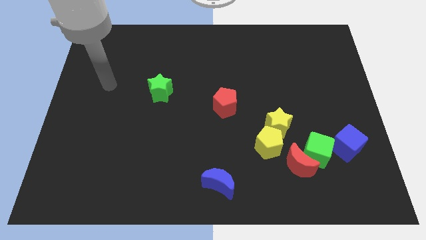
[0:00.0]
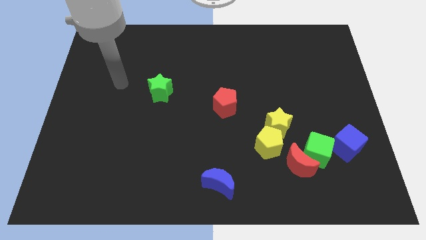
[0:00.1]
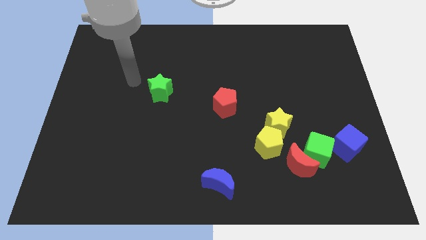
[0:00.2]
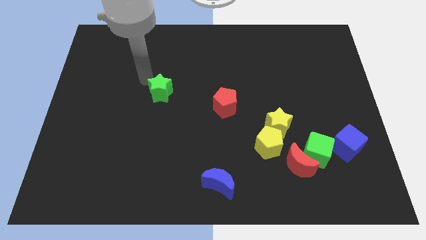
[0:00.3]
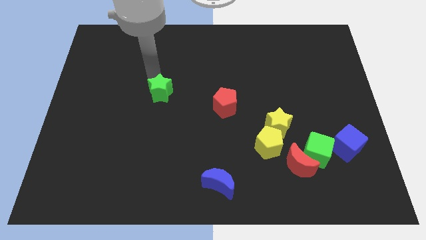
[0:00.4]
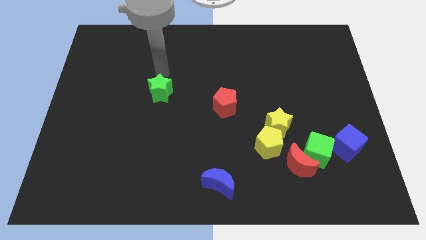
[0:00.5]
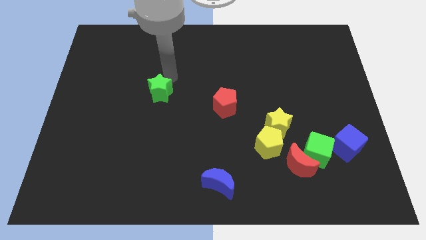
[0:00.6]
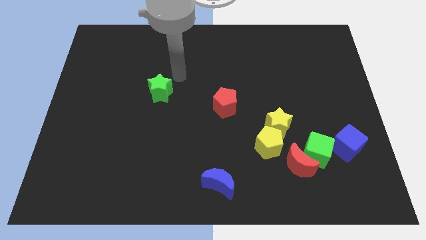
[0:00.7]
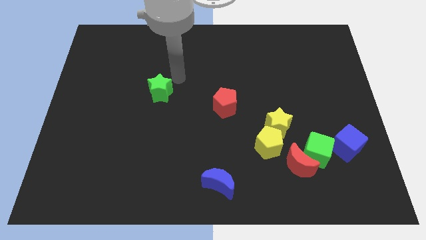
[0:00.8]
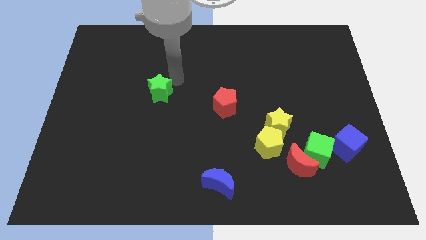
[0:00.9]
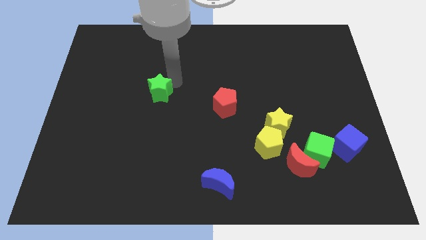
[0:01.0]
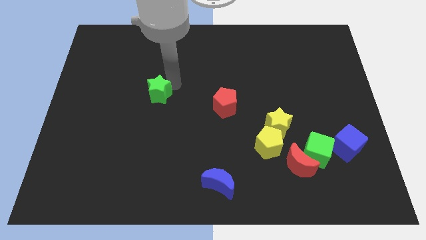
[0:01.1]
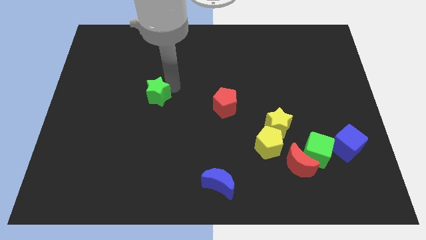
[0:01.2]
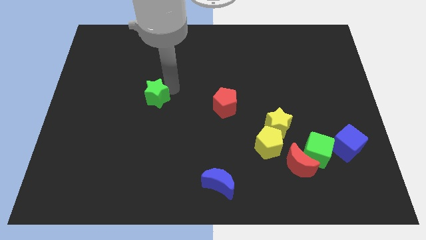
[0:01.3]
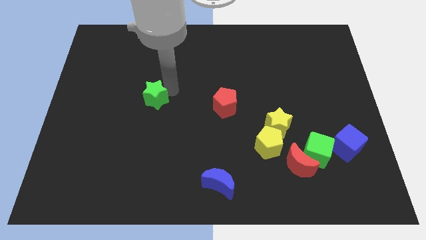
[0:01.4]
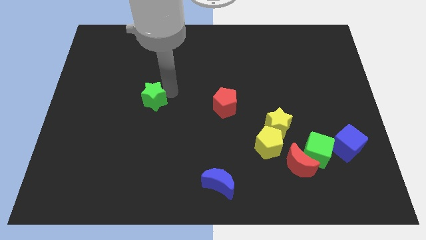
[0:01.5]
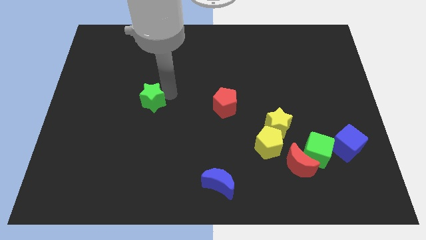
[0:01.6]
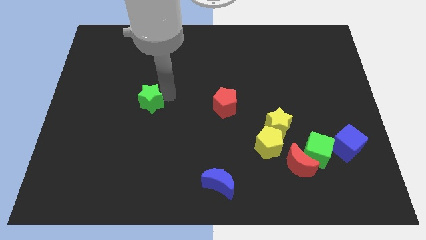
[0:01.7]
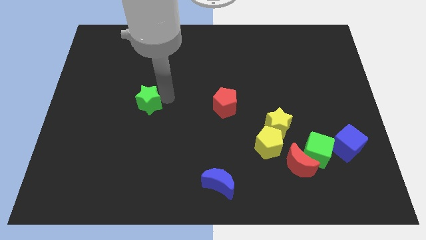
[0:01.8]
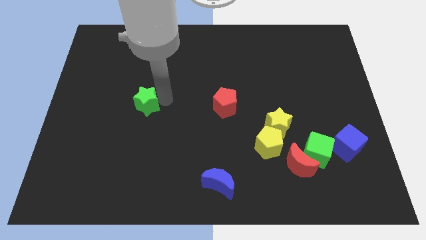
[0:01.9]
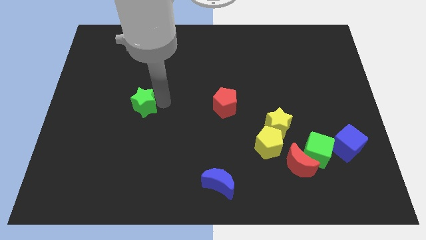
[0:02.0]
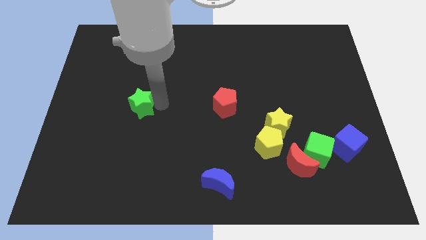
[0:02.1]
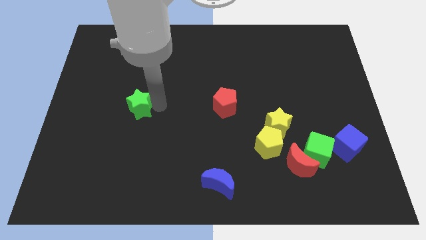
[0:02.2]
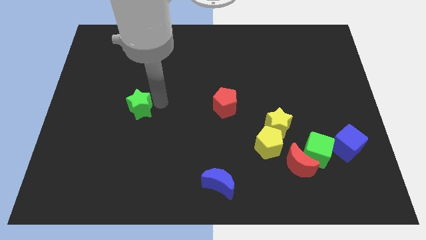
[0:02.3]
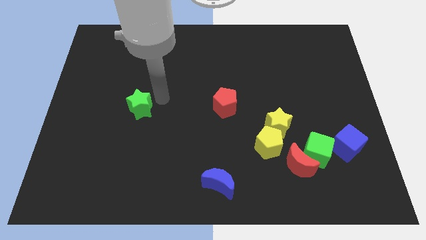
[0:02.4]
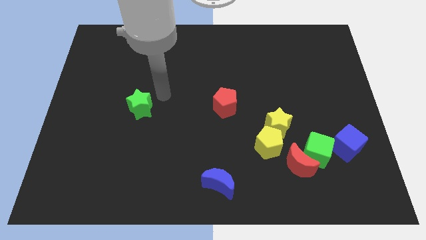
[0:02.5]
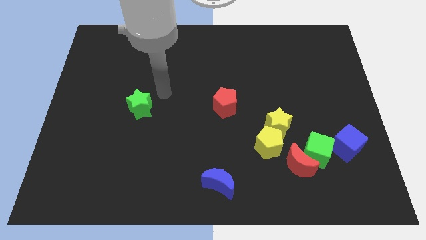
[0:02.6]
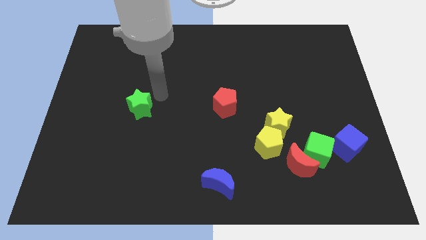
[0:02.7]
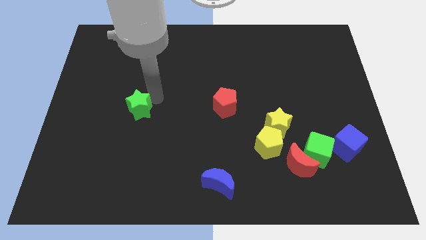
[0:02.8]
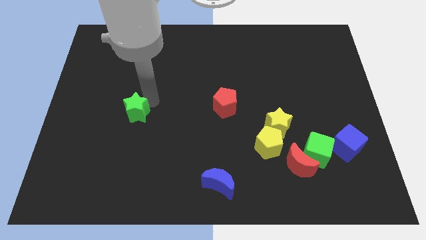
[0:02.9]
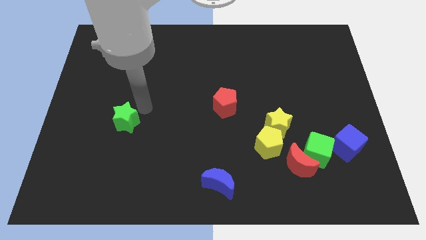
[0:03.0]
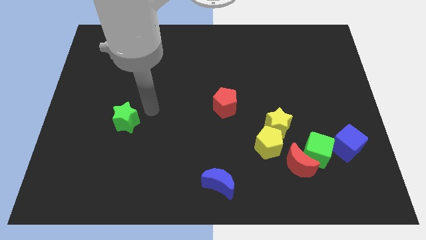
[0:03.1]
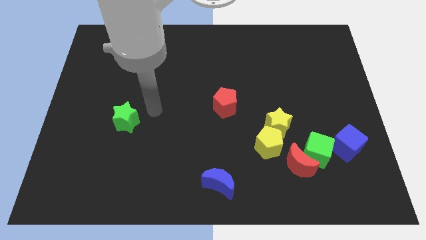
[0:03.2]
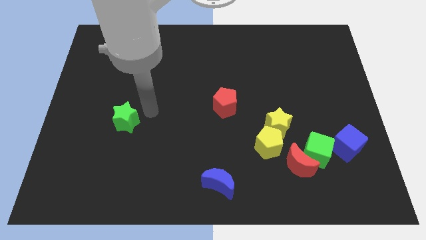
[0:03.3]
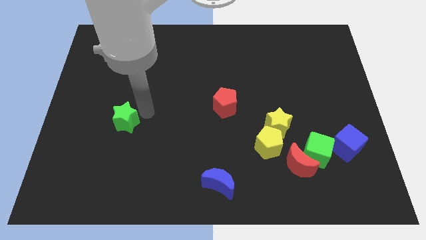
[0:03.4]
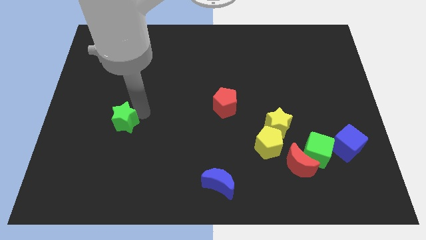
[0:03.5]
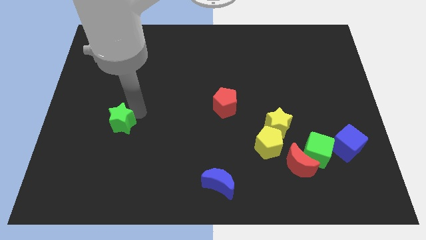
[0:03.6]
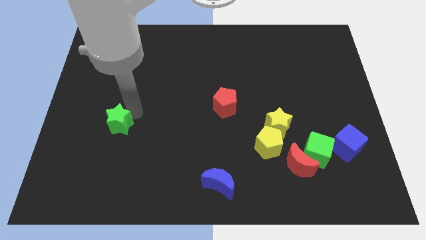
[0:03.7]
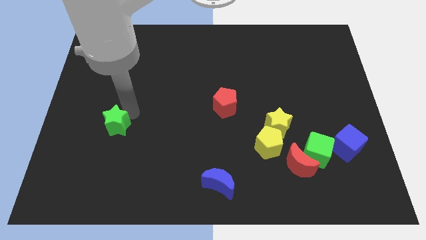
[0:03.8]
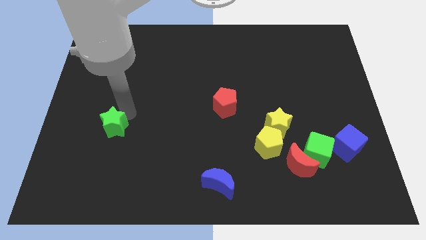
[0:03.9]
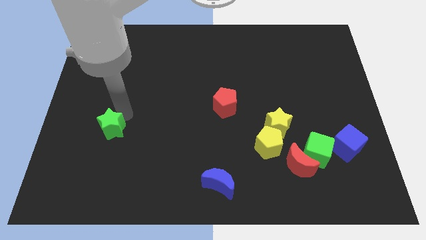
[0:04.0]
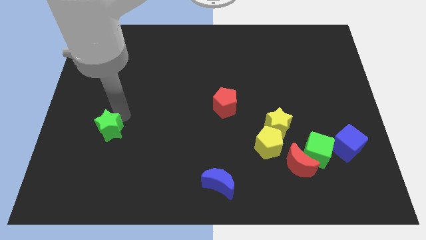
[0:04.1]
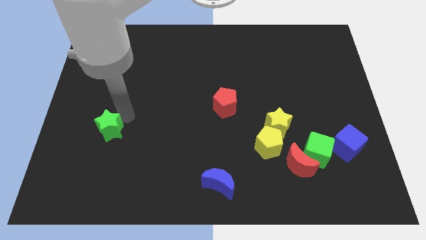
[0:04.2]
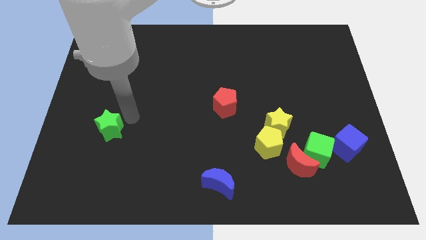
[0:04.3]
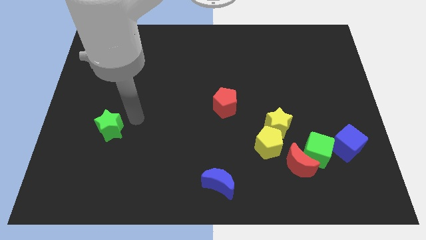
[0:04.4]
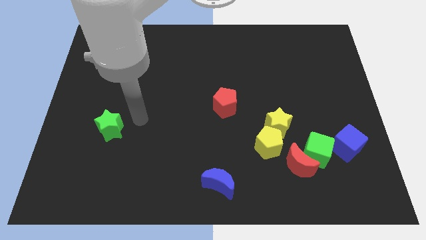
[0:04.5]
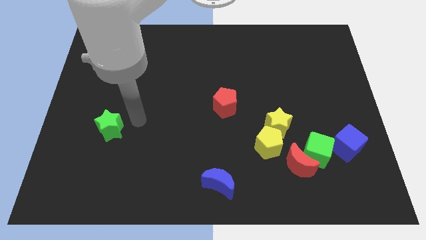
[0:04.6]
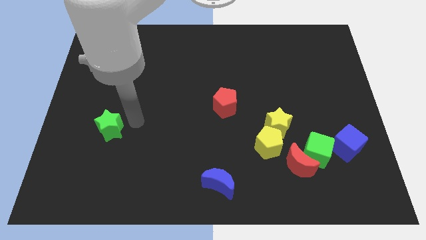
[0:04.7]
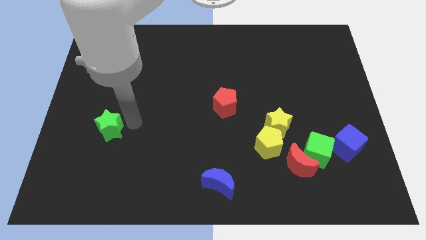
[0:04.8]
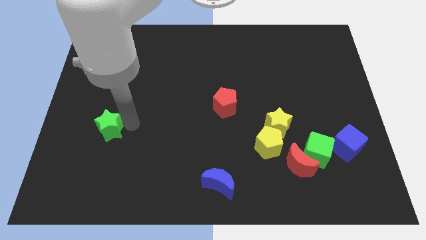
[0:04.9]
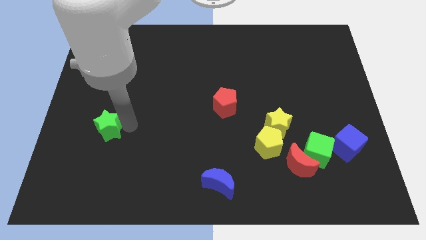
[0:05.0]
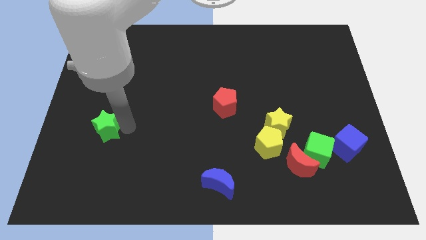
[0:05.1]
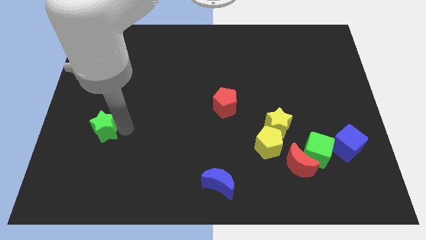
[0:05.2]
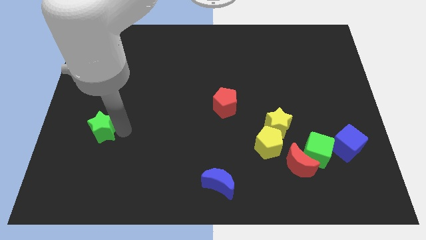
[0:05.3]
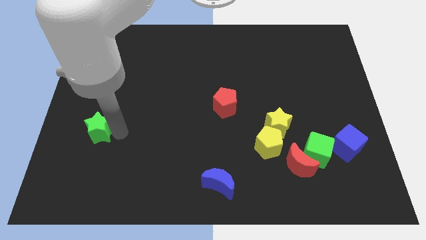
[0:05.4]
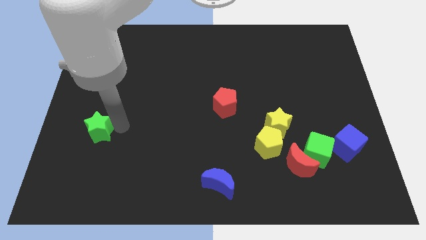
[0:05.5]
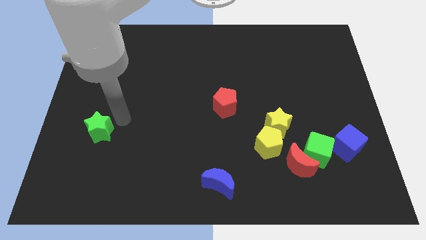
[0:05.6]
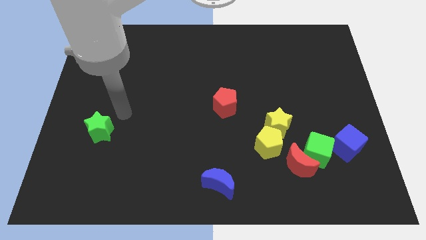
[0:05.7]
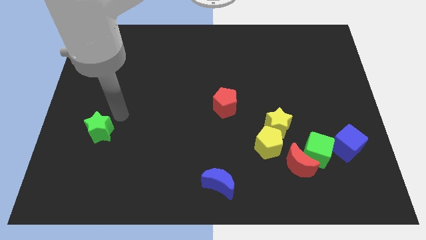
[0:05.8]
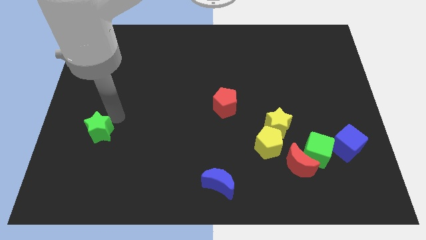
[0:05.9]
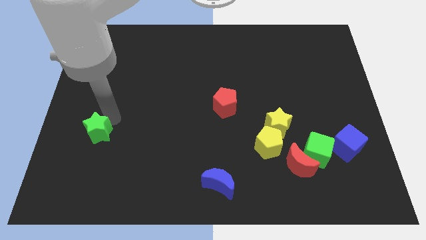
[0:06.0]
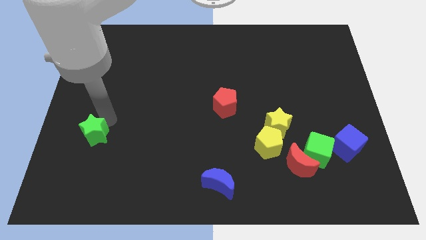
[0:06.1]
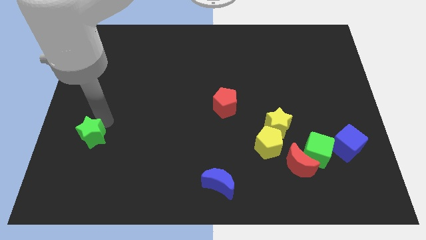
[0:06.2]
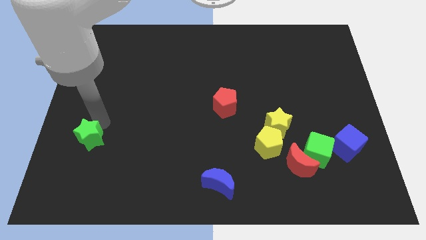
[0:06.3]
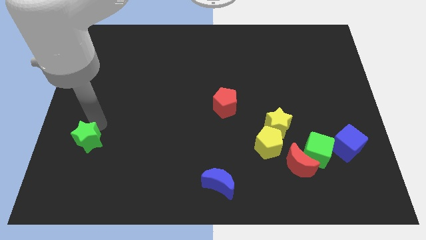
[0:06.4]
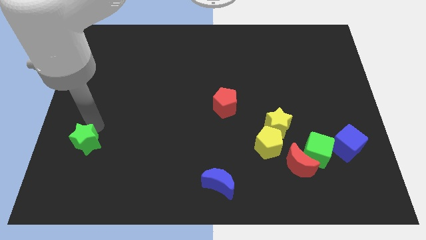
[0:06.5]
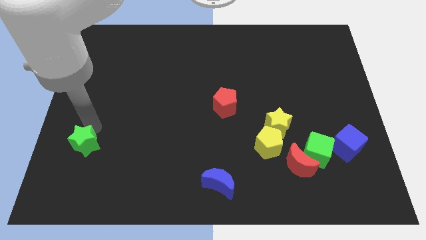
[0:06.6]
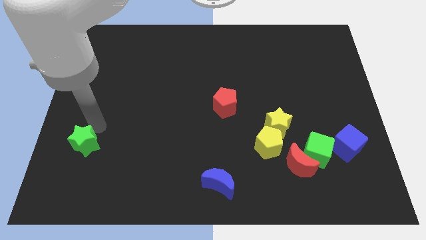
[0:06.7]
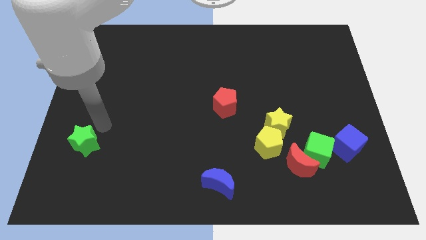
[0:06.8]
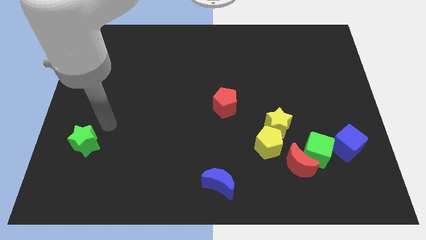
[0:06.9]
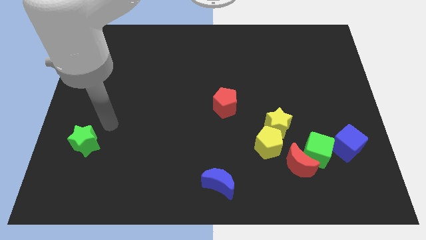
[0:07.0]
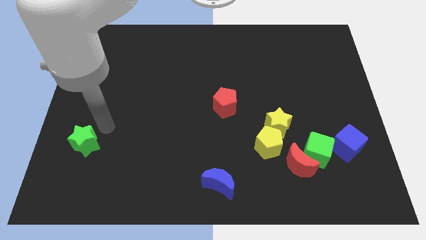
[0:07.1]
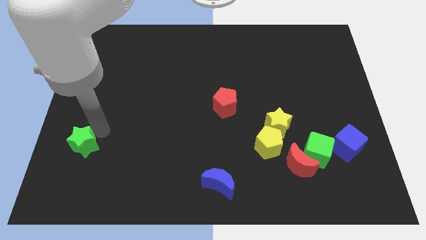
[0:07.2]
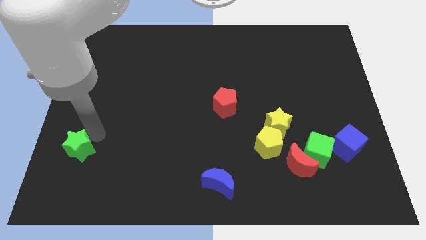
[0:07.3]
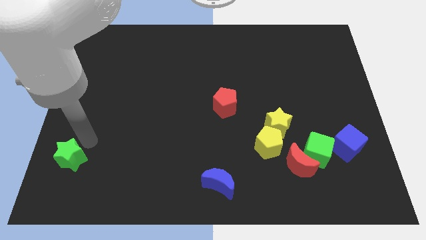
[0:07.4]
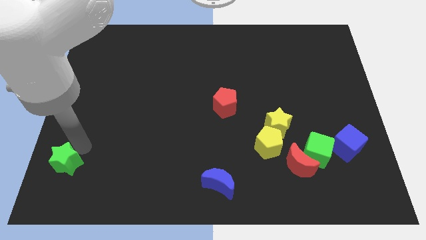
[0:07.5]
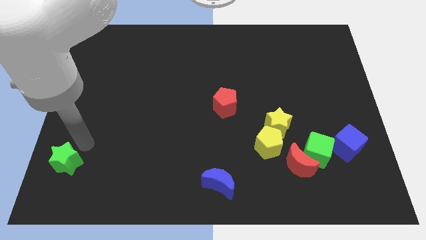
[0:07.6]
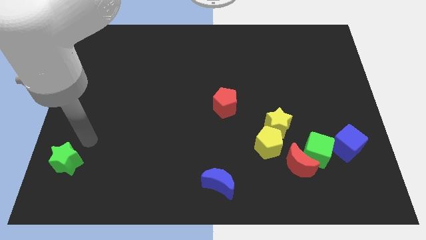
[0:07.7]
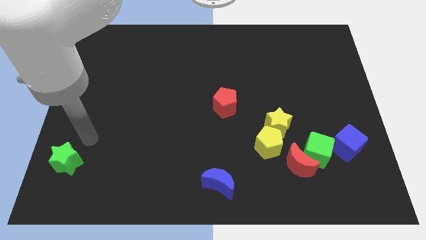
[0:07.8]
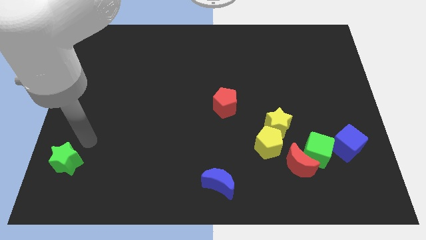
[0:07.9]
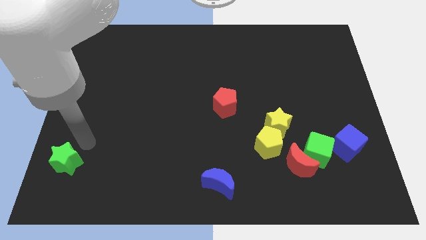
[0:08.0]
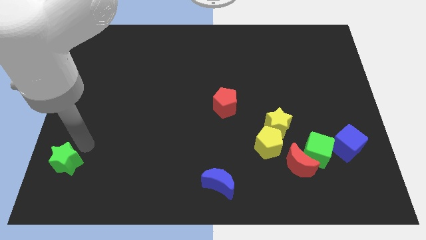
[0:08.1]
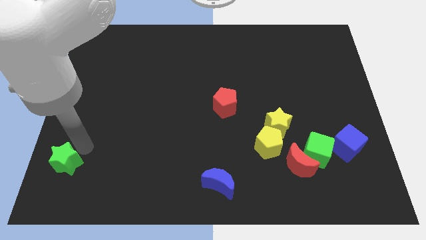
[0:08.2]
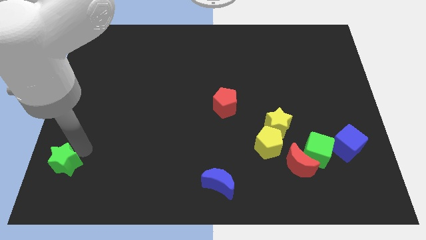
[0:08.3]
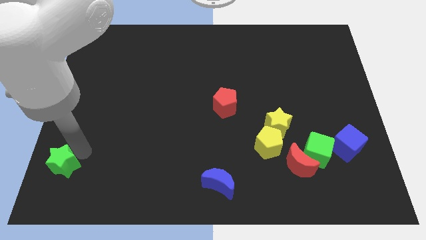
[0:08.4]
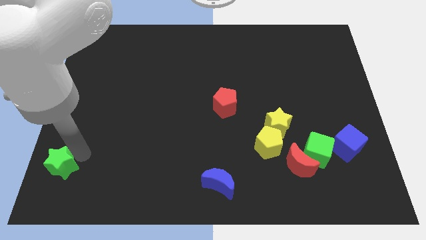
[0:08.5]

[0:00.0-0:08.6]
push the green star to the bottom left corner
